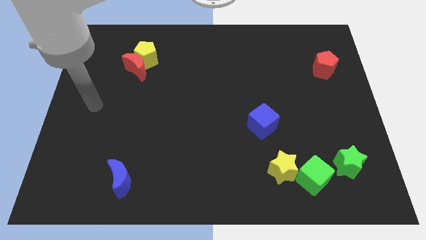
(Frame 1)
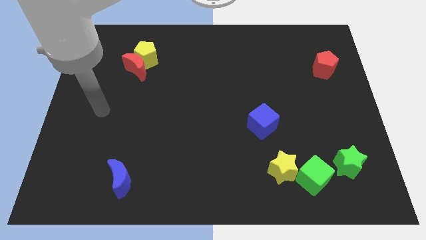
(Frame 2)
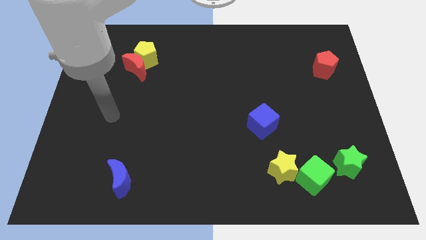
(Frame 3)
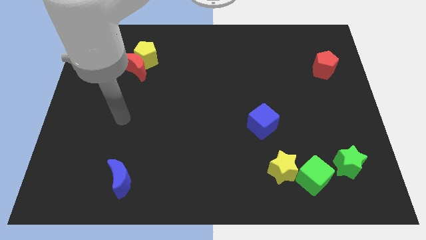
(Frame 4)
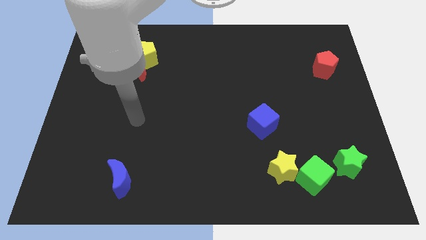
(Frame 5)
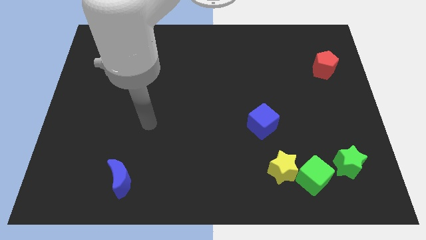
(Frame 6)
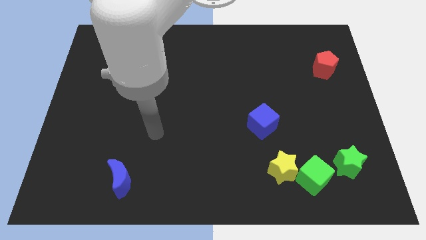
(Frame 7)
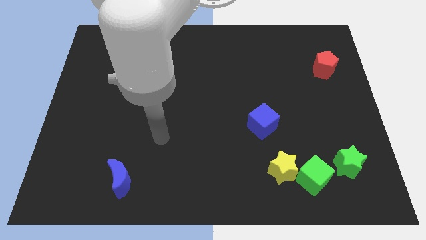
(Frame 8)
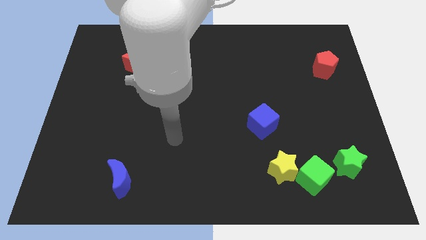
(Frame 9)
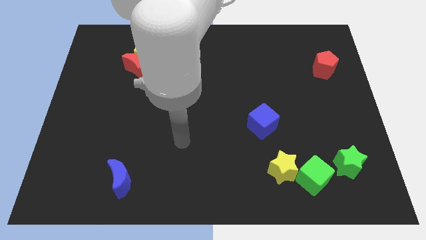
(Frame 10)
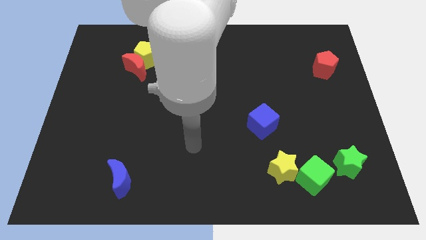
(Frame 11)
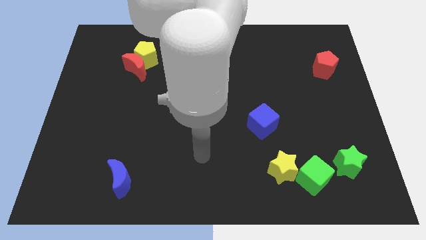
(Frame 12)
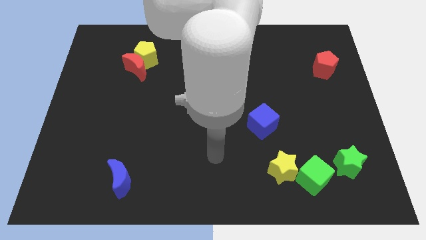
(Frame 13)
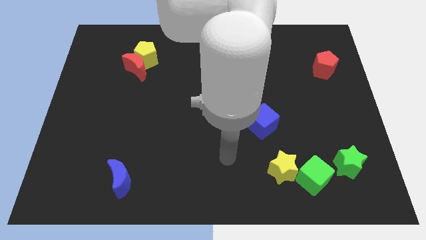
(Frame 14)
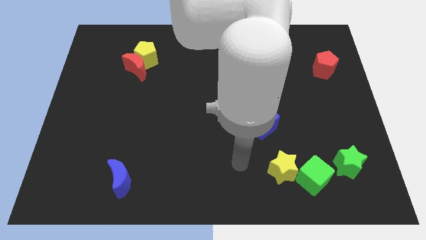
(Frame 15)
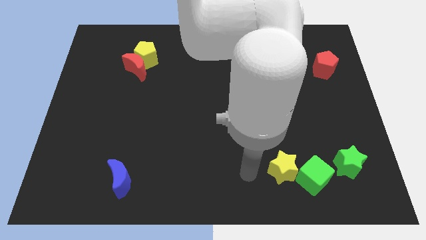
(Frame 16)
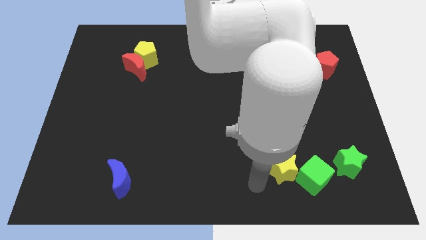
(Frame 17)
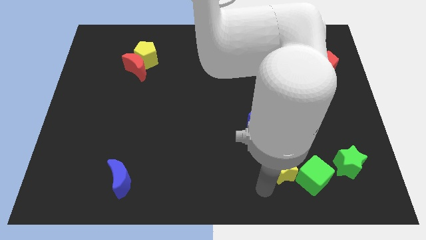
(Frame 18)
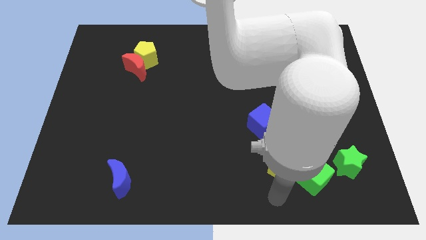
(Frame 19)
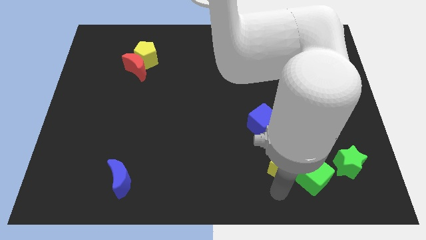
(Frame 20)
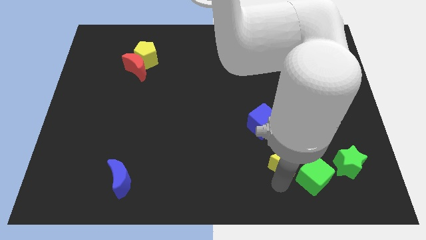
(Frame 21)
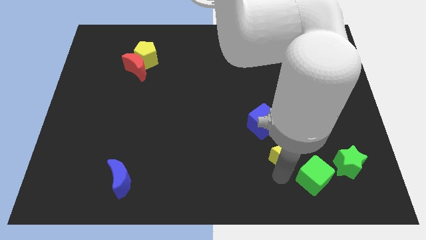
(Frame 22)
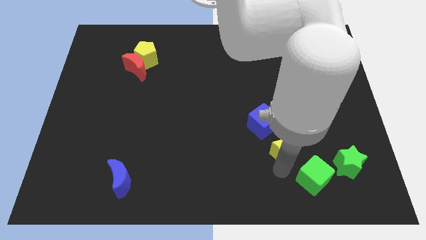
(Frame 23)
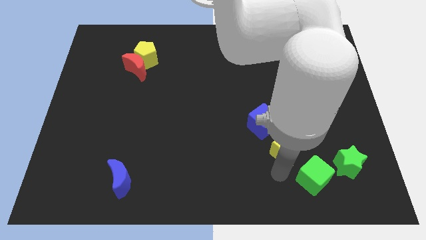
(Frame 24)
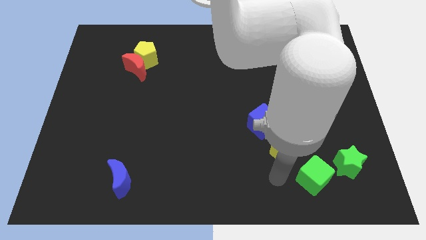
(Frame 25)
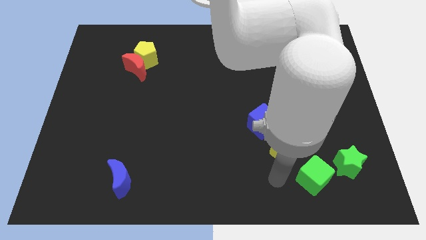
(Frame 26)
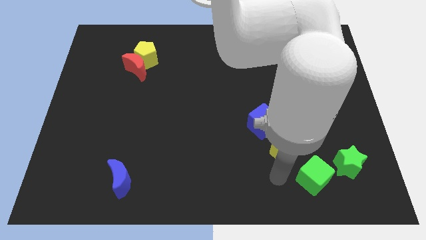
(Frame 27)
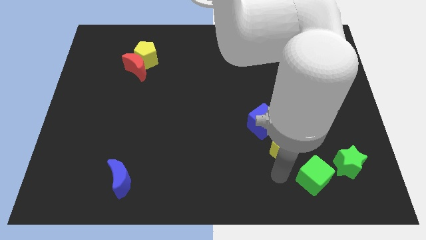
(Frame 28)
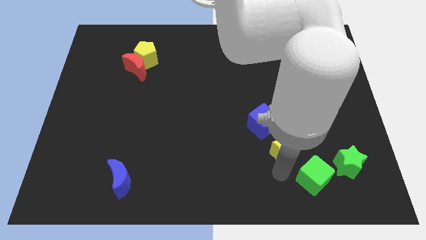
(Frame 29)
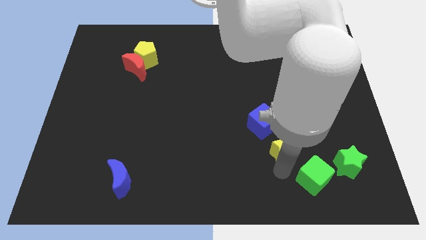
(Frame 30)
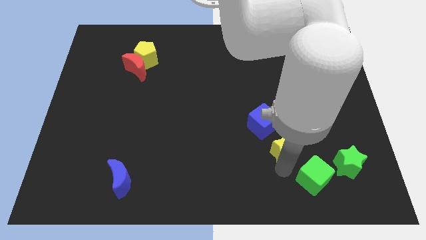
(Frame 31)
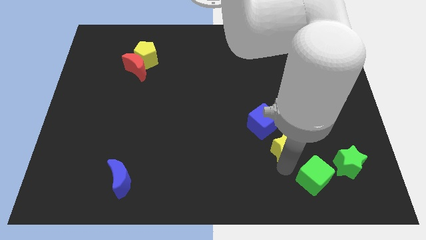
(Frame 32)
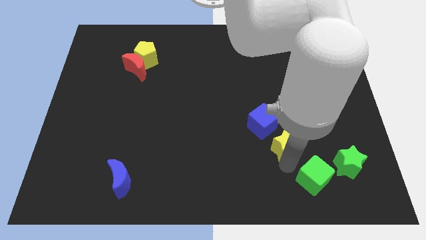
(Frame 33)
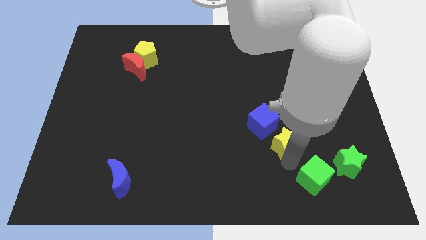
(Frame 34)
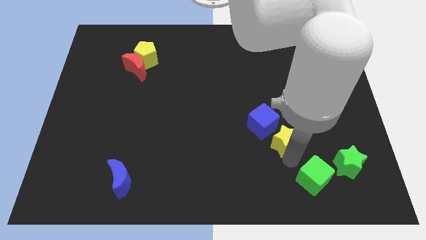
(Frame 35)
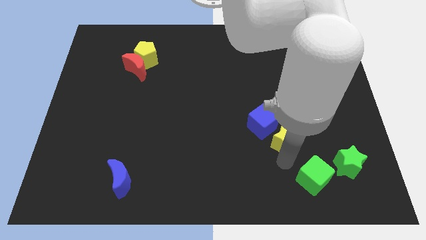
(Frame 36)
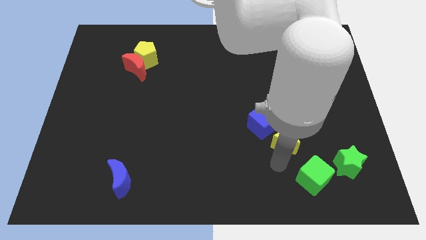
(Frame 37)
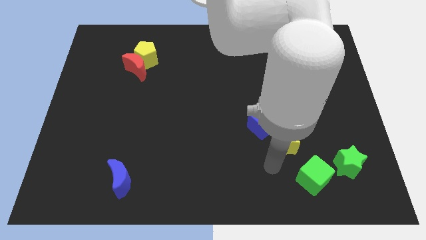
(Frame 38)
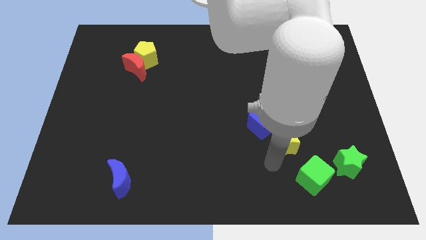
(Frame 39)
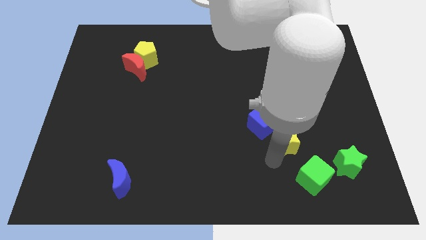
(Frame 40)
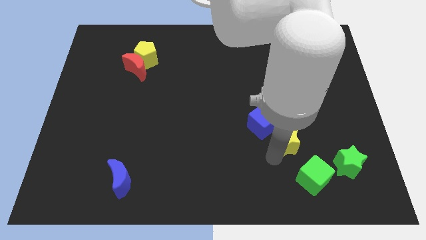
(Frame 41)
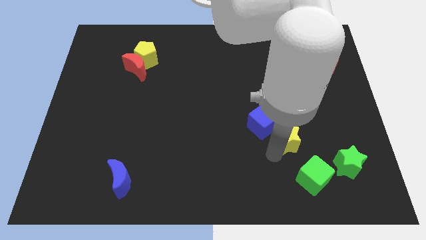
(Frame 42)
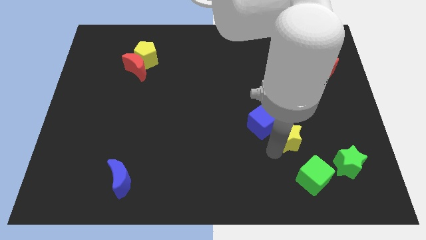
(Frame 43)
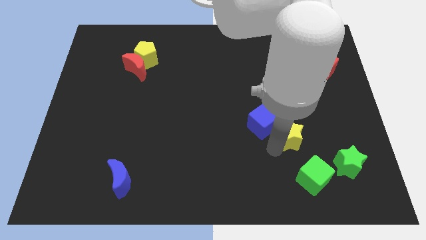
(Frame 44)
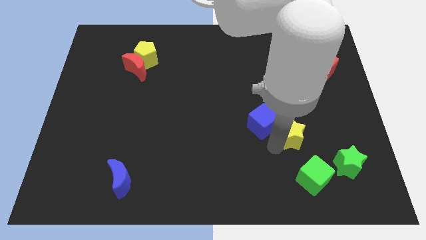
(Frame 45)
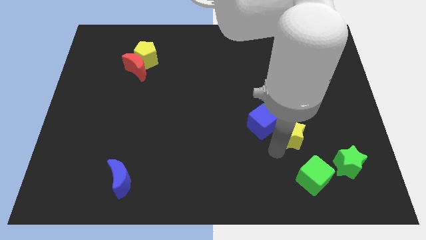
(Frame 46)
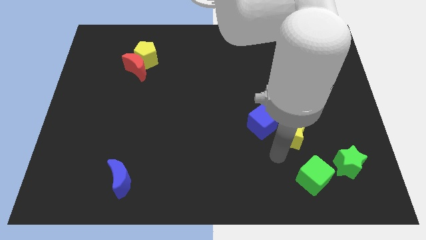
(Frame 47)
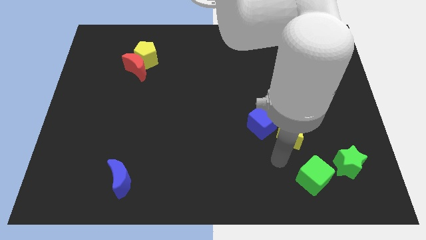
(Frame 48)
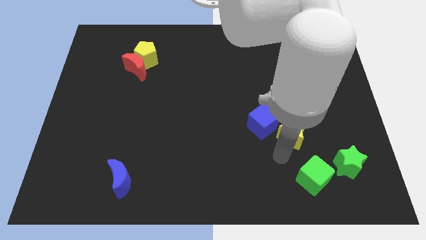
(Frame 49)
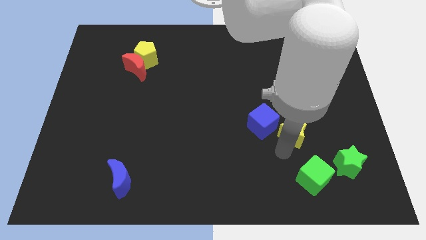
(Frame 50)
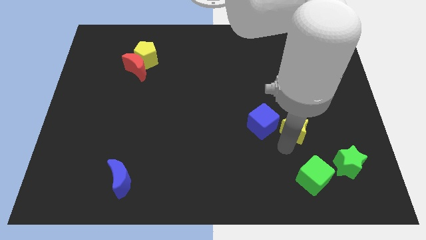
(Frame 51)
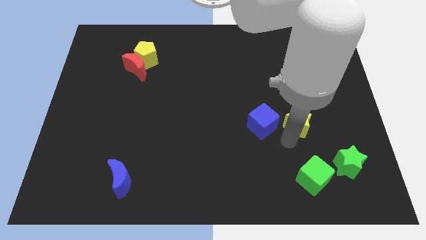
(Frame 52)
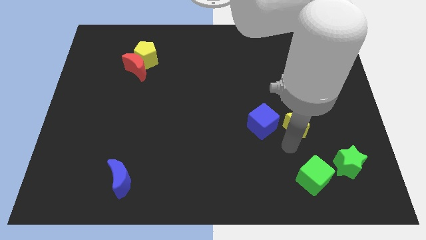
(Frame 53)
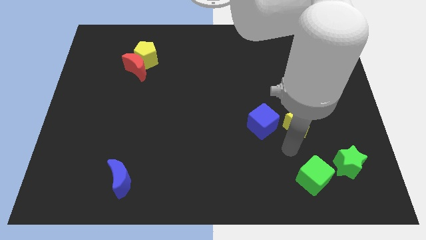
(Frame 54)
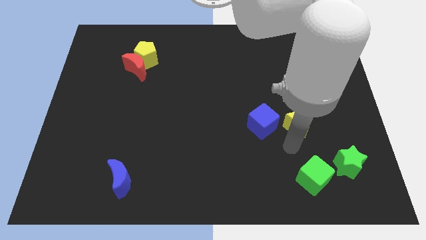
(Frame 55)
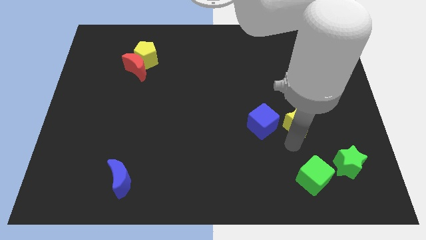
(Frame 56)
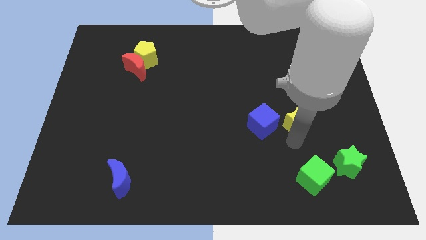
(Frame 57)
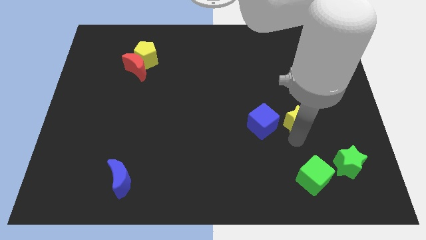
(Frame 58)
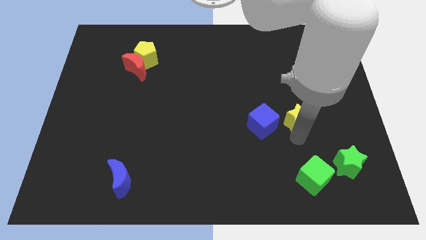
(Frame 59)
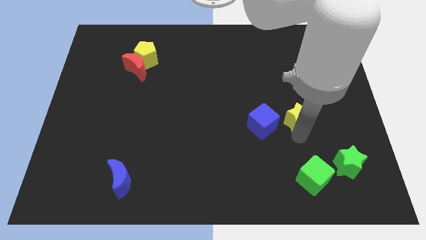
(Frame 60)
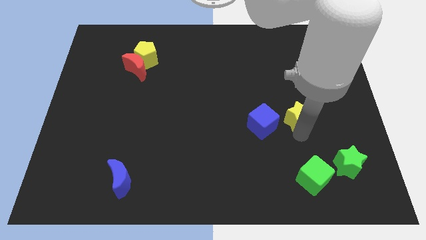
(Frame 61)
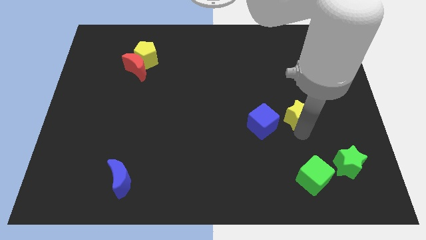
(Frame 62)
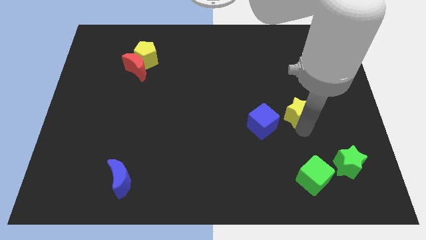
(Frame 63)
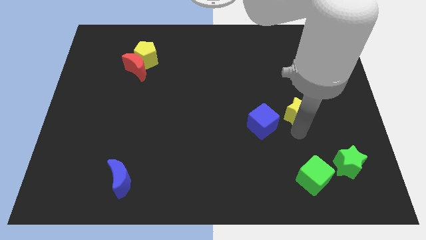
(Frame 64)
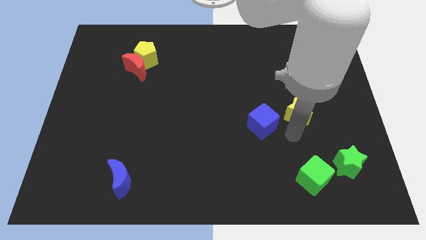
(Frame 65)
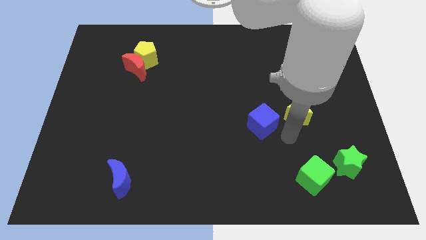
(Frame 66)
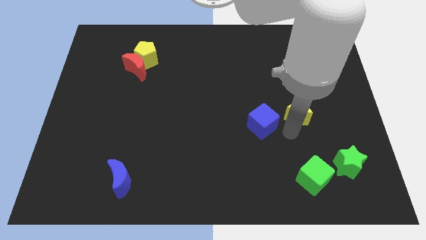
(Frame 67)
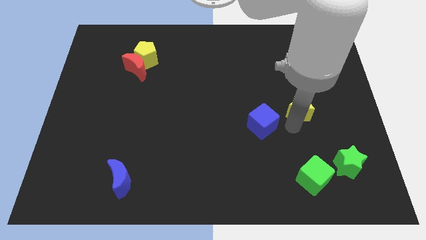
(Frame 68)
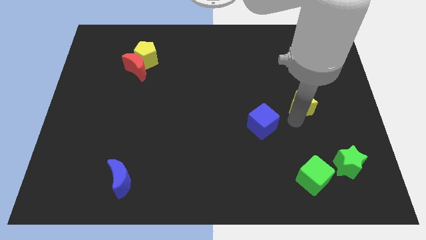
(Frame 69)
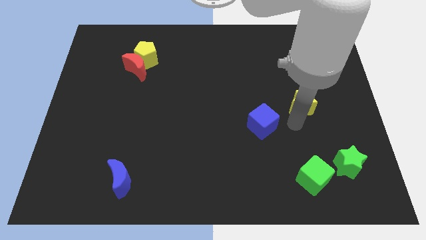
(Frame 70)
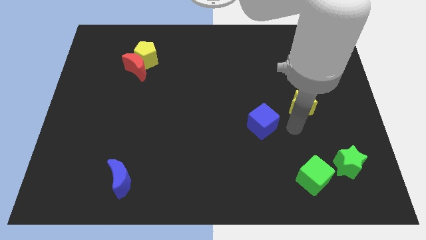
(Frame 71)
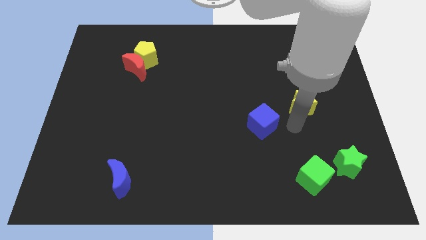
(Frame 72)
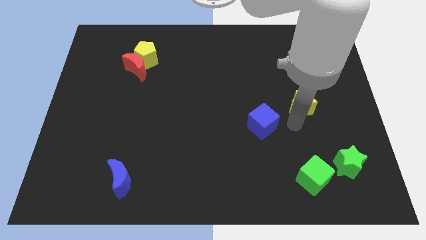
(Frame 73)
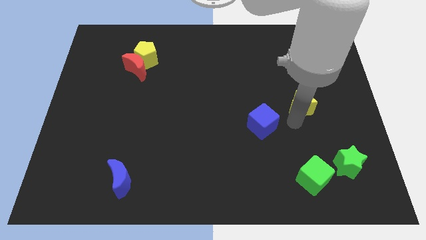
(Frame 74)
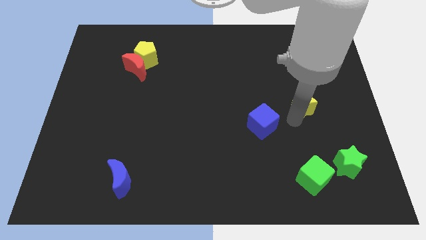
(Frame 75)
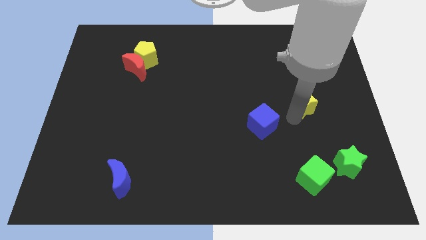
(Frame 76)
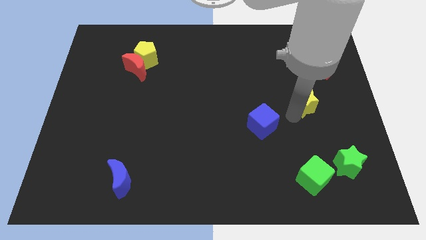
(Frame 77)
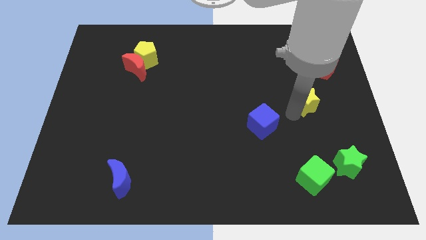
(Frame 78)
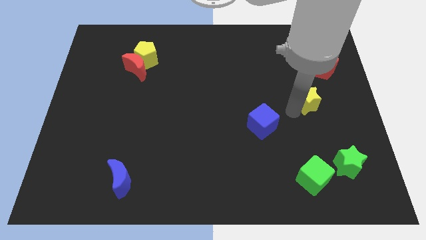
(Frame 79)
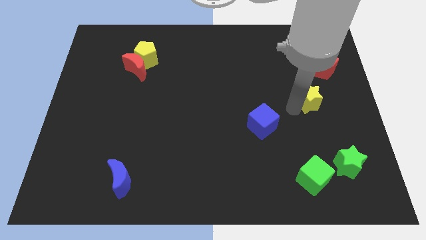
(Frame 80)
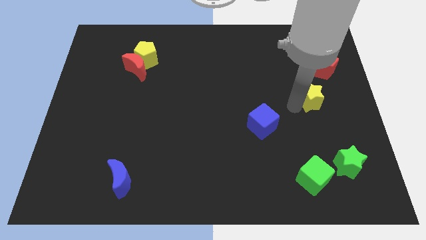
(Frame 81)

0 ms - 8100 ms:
slide the yellow star to the bottom left side of the red pentagon
